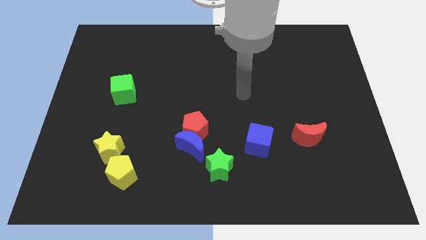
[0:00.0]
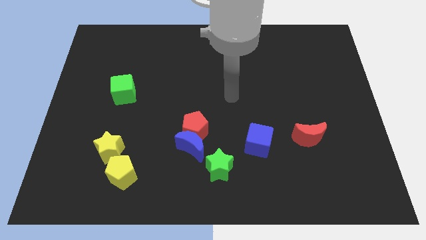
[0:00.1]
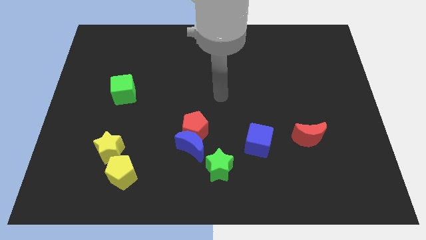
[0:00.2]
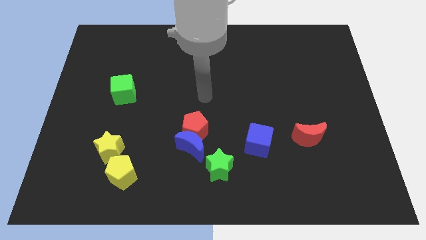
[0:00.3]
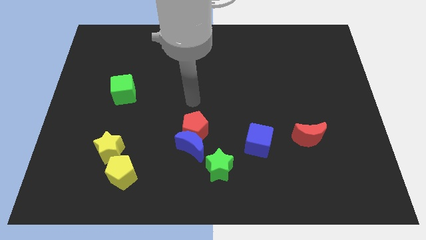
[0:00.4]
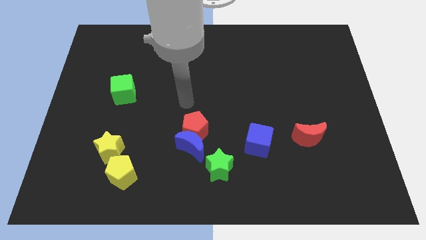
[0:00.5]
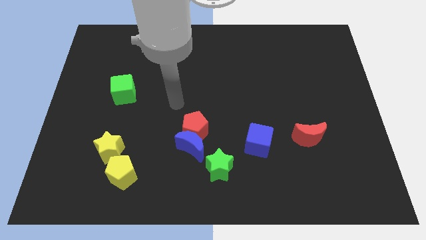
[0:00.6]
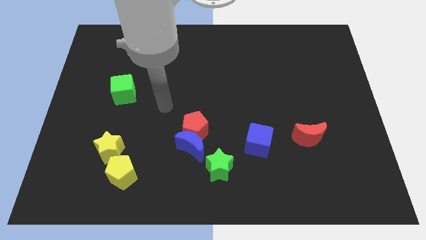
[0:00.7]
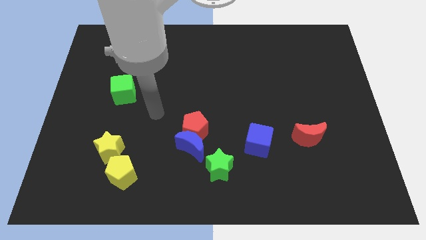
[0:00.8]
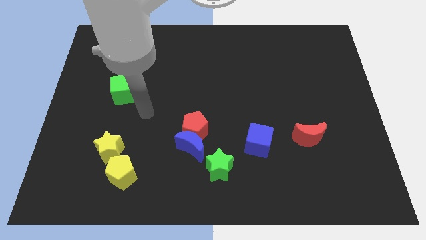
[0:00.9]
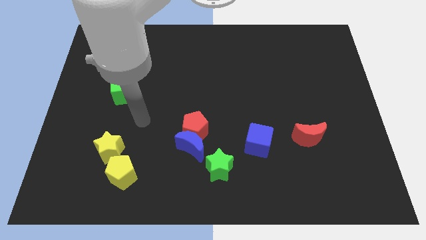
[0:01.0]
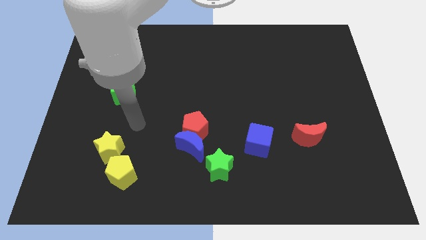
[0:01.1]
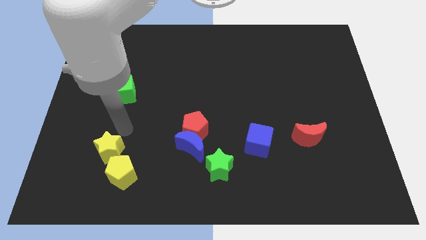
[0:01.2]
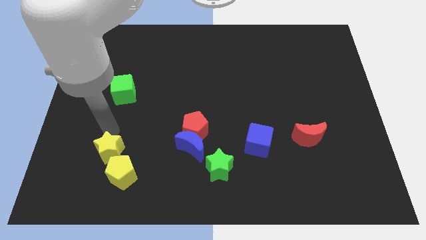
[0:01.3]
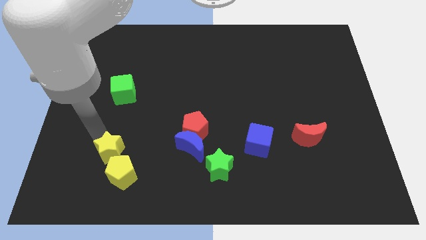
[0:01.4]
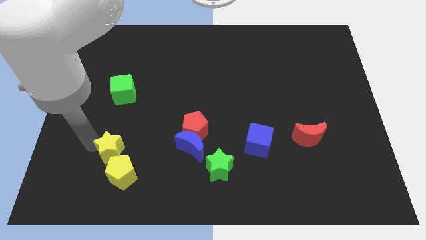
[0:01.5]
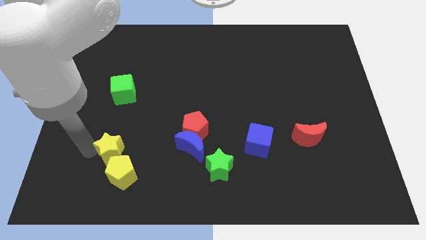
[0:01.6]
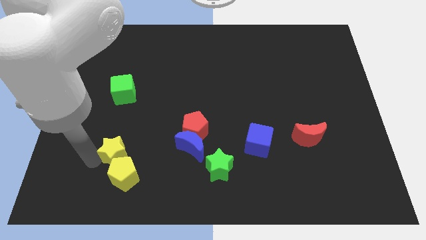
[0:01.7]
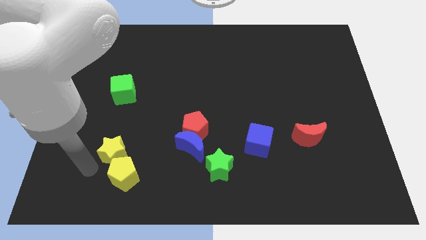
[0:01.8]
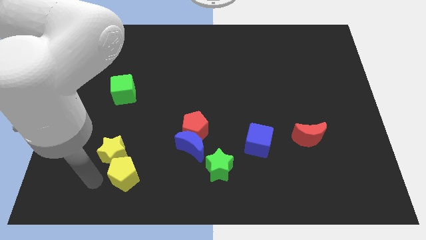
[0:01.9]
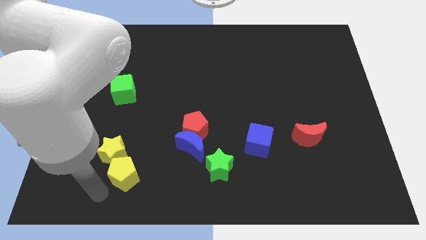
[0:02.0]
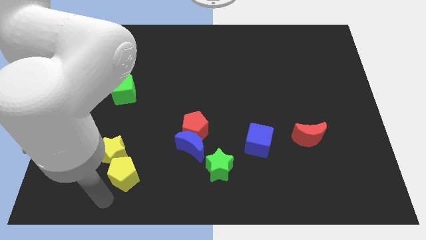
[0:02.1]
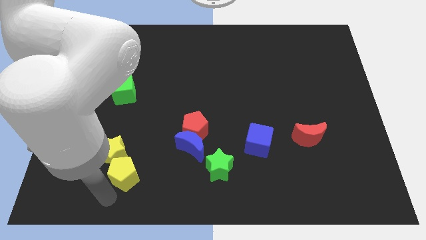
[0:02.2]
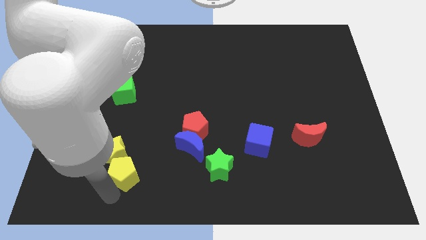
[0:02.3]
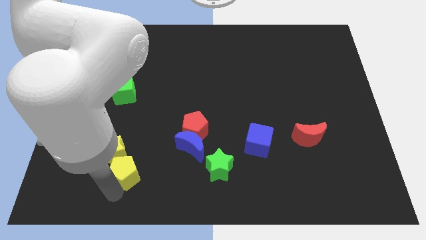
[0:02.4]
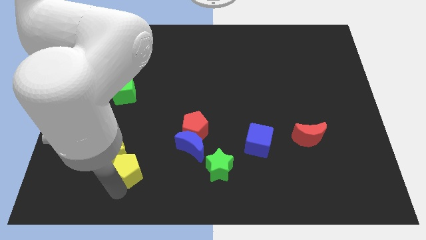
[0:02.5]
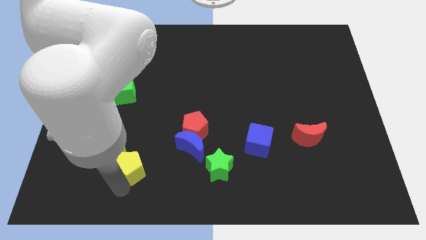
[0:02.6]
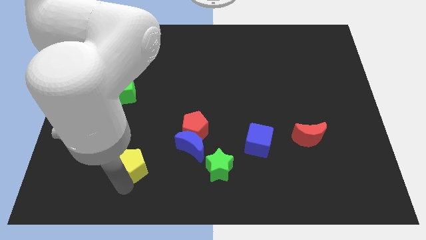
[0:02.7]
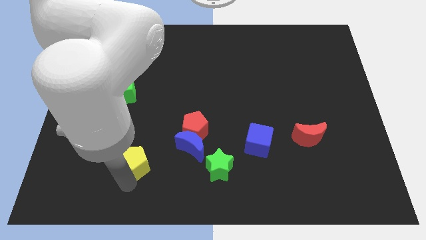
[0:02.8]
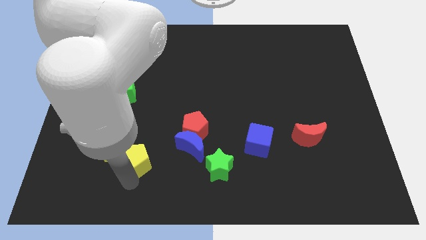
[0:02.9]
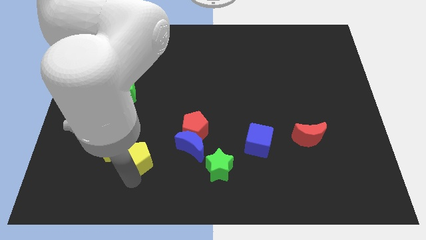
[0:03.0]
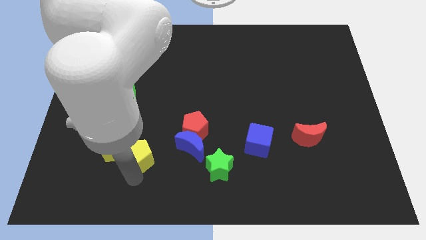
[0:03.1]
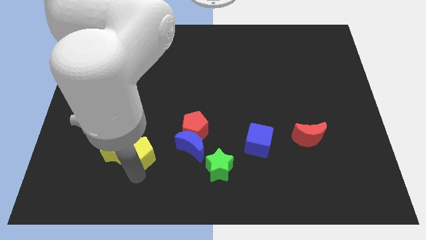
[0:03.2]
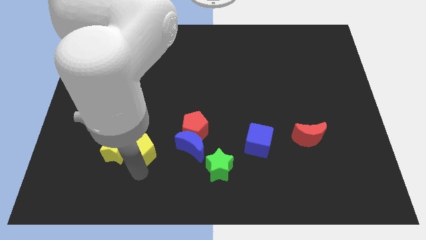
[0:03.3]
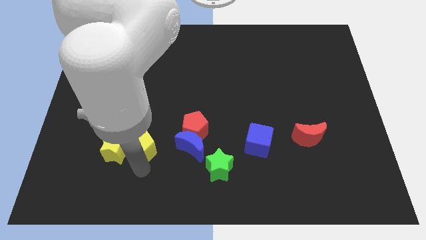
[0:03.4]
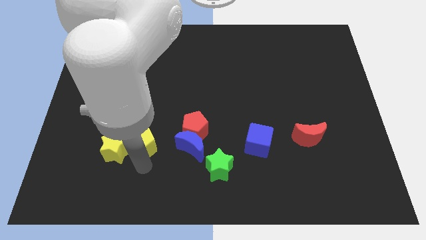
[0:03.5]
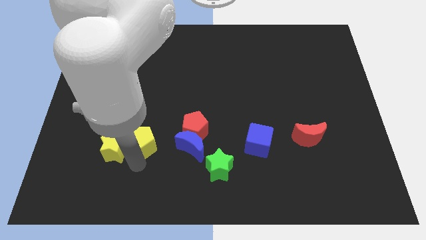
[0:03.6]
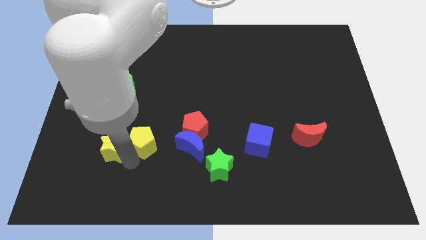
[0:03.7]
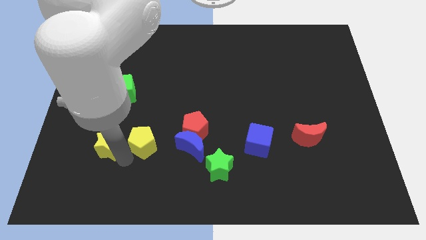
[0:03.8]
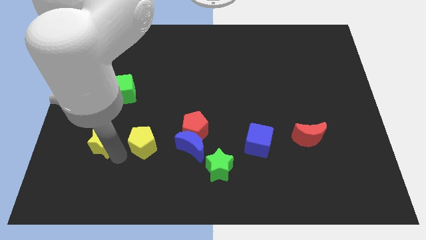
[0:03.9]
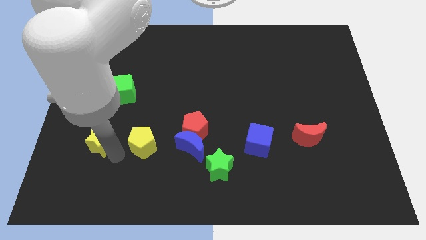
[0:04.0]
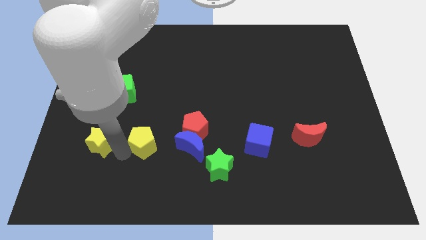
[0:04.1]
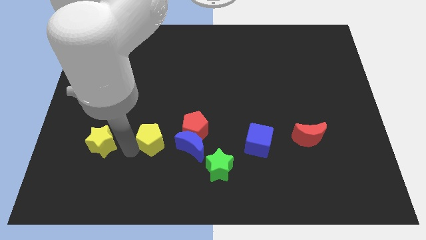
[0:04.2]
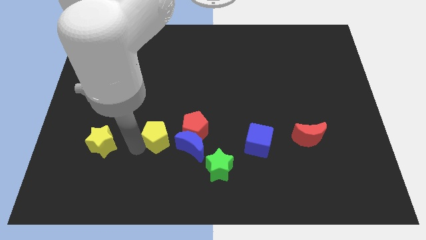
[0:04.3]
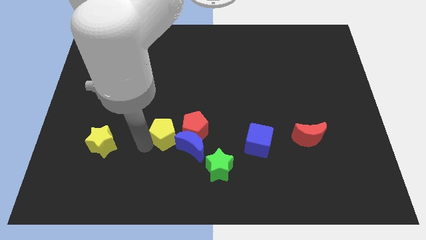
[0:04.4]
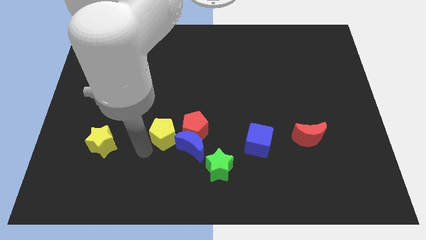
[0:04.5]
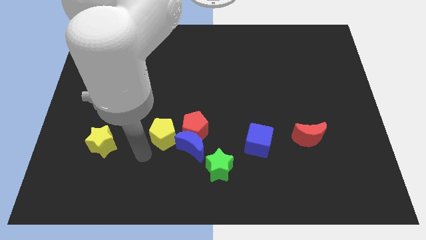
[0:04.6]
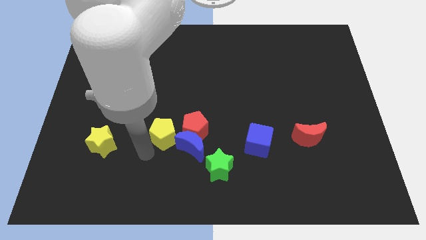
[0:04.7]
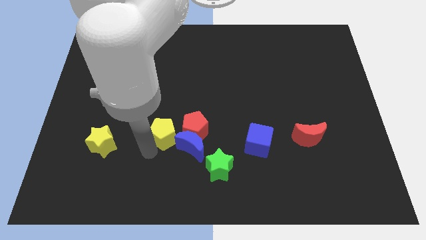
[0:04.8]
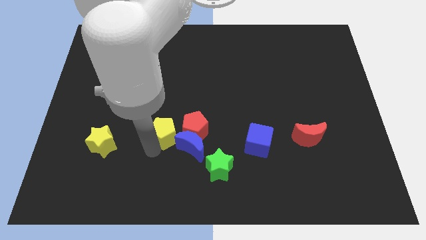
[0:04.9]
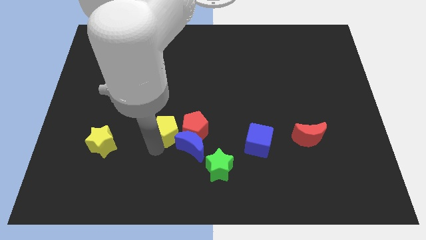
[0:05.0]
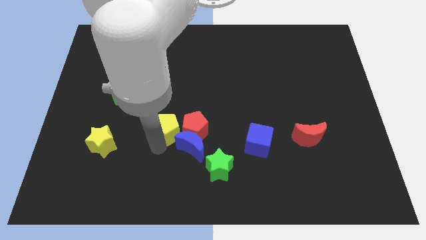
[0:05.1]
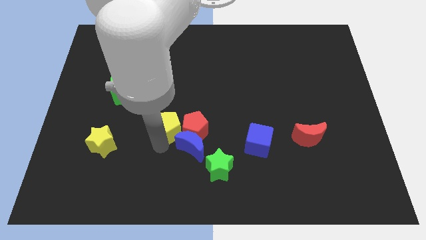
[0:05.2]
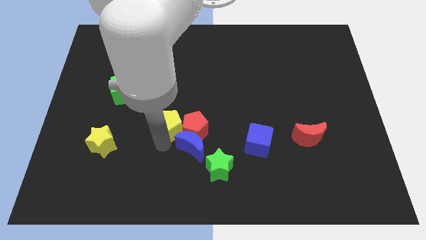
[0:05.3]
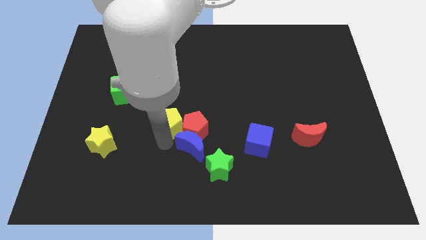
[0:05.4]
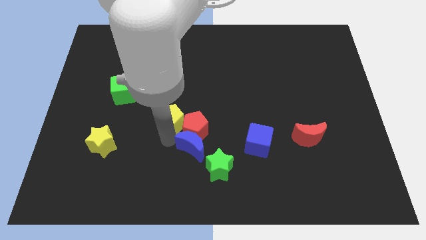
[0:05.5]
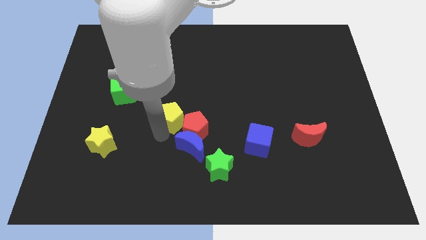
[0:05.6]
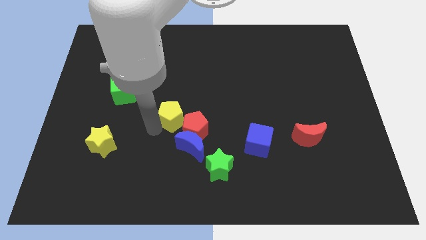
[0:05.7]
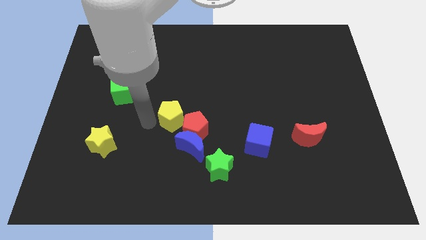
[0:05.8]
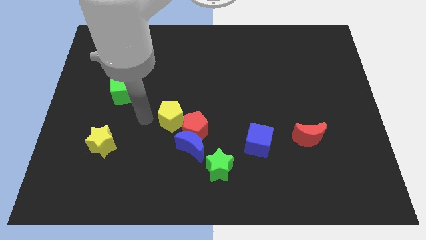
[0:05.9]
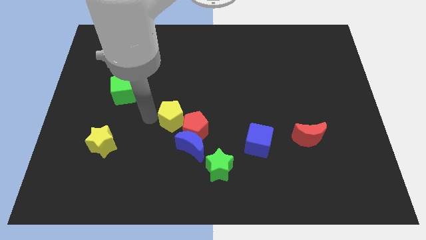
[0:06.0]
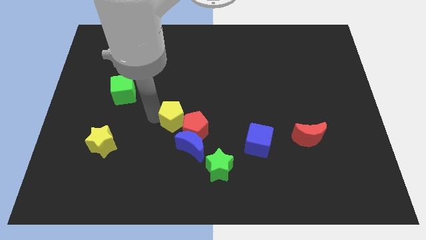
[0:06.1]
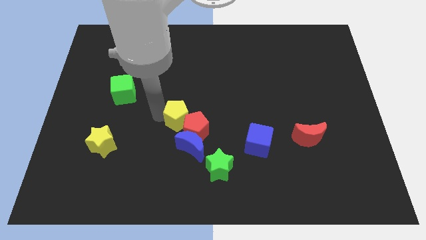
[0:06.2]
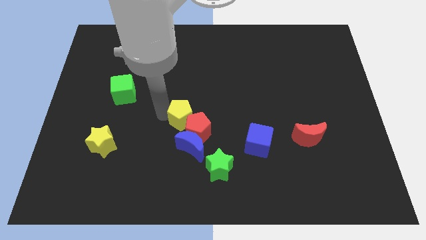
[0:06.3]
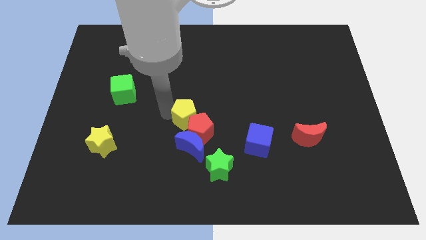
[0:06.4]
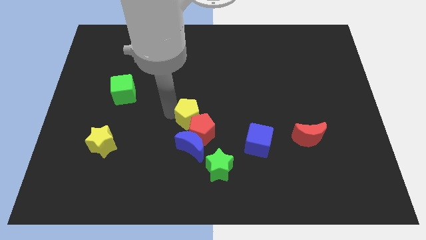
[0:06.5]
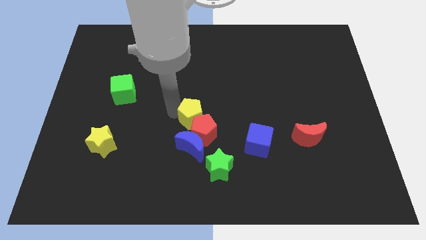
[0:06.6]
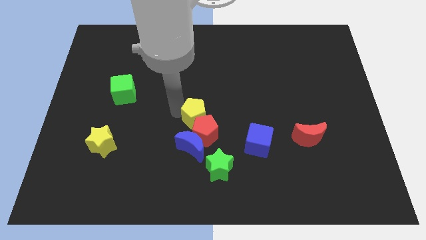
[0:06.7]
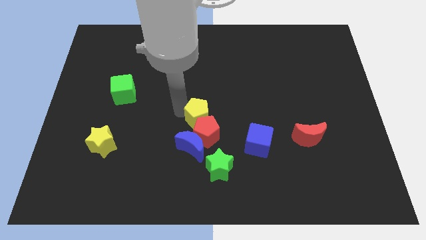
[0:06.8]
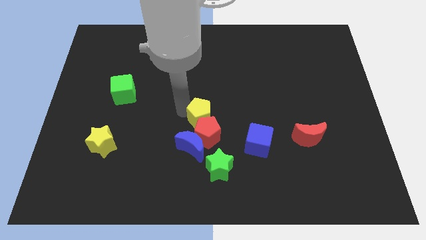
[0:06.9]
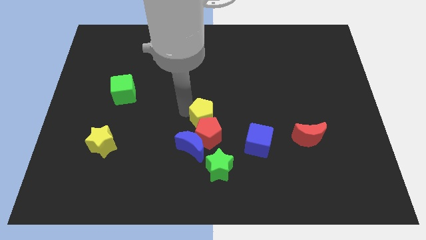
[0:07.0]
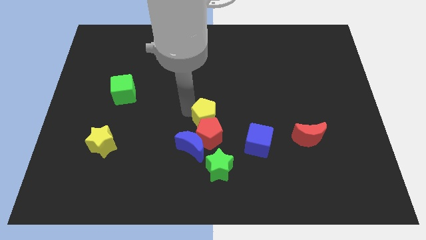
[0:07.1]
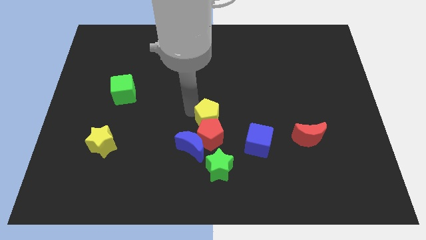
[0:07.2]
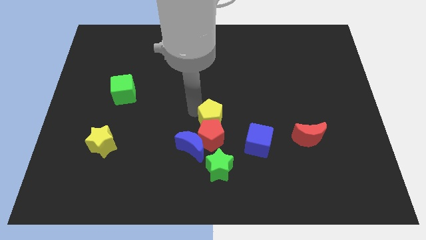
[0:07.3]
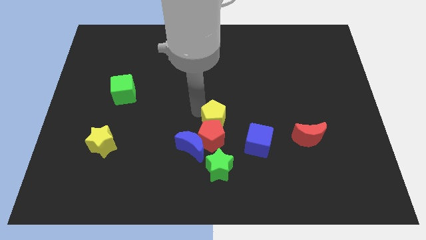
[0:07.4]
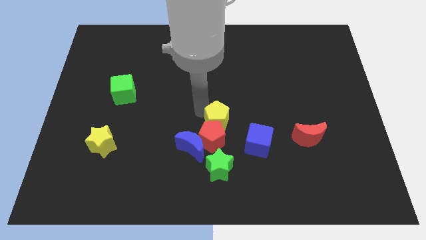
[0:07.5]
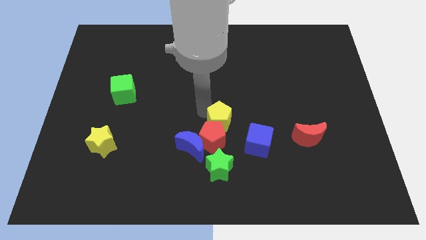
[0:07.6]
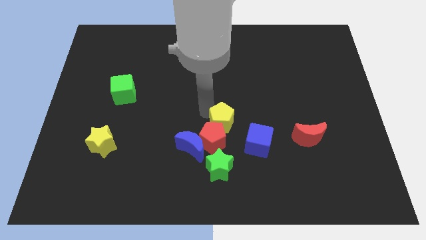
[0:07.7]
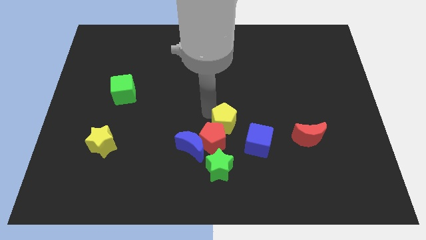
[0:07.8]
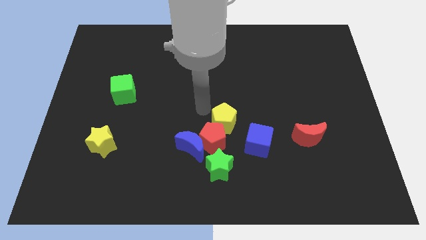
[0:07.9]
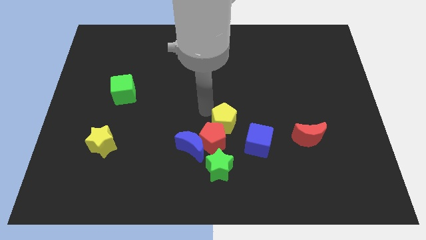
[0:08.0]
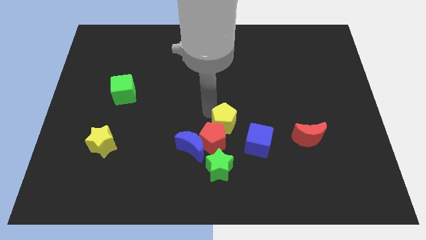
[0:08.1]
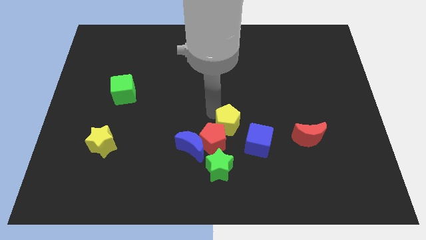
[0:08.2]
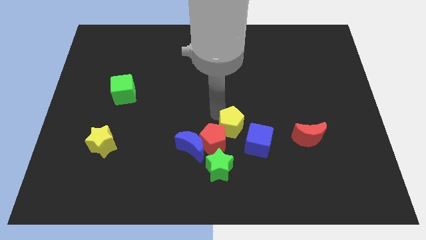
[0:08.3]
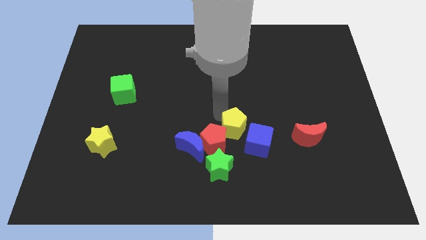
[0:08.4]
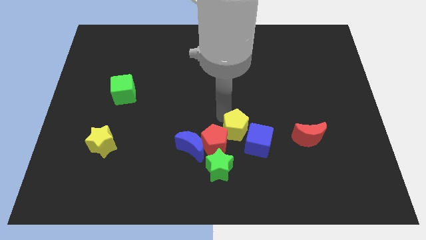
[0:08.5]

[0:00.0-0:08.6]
slide the yellow pentagon close to the blue cube
